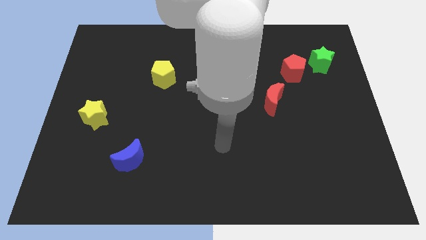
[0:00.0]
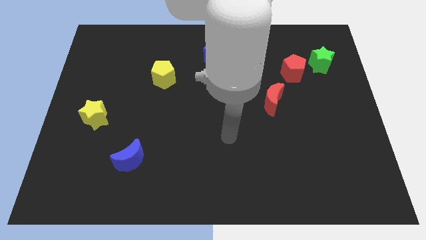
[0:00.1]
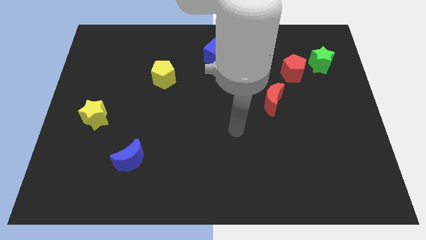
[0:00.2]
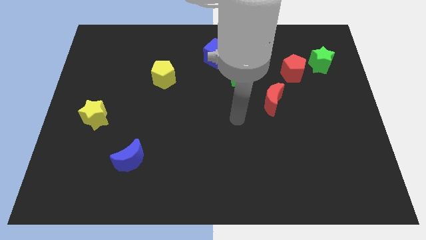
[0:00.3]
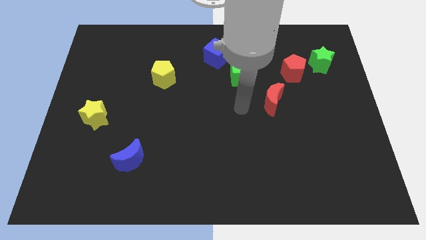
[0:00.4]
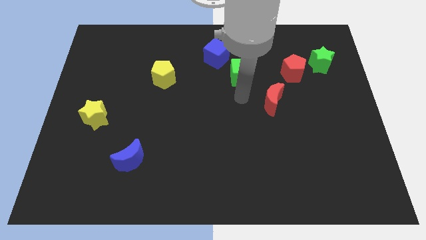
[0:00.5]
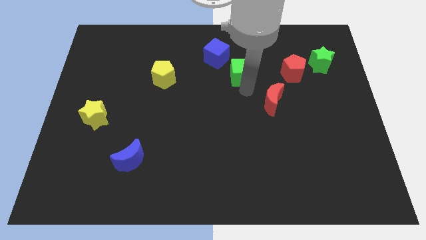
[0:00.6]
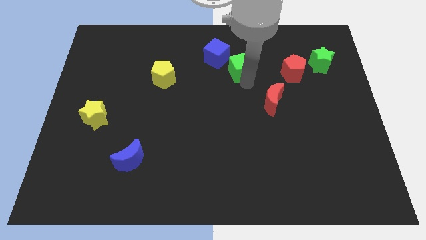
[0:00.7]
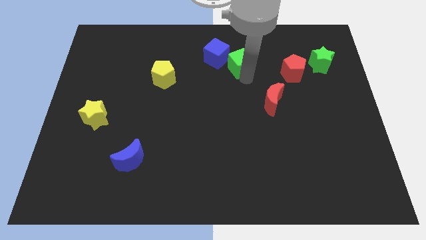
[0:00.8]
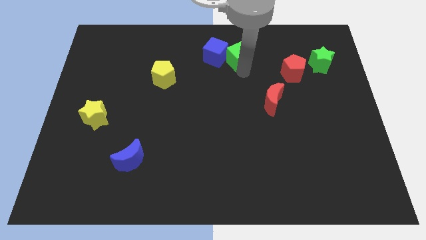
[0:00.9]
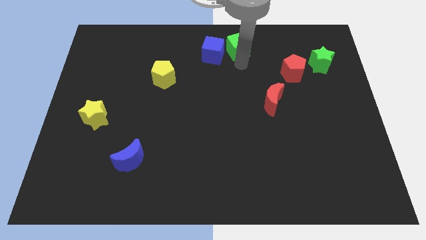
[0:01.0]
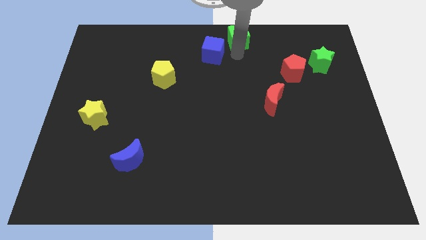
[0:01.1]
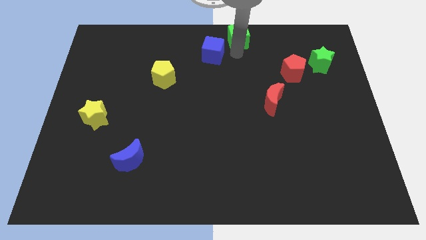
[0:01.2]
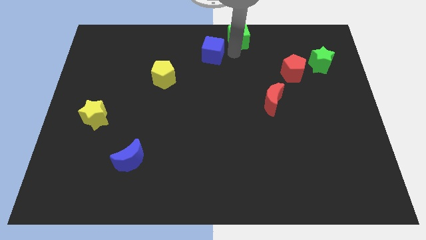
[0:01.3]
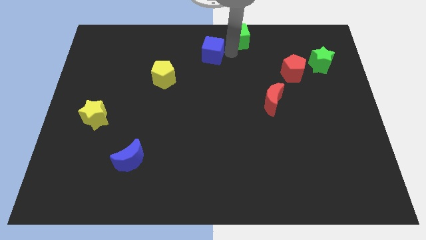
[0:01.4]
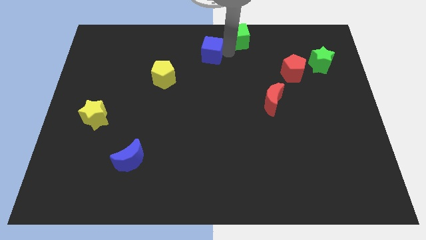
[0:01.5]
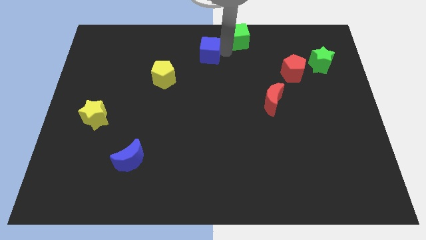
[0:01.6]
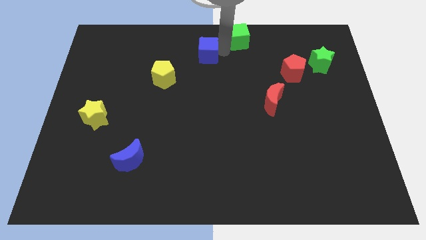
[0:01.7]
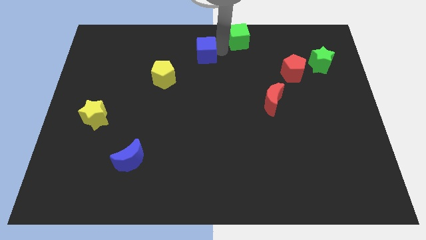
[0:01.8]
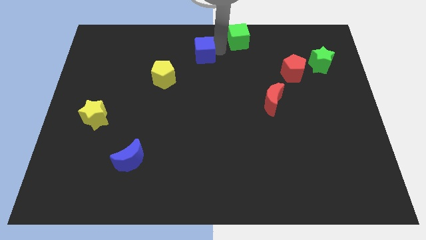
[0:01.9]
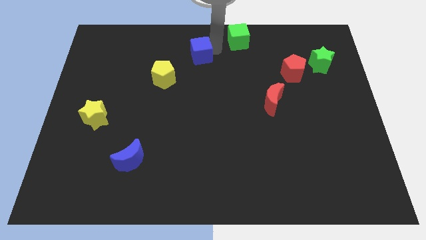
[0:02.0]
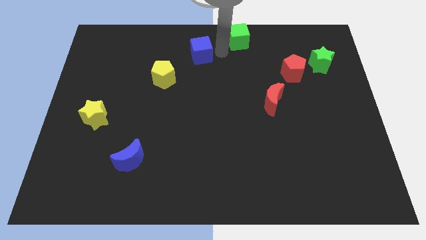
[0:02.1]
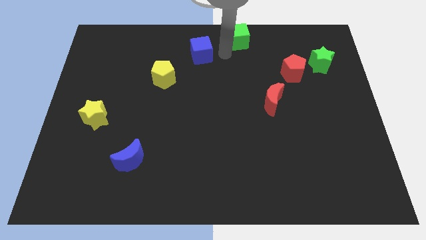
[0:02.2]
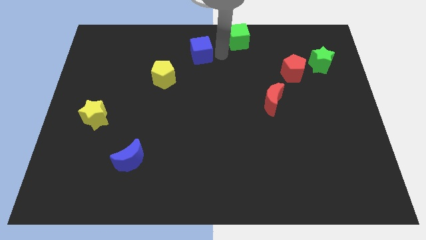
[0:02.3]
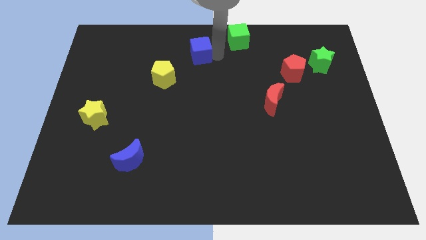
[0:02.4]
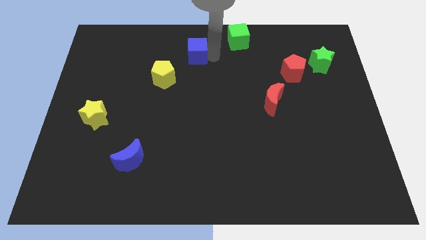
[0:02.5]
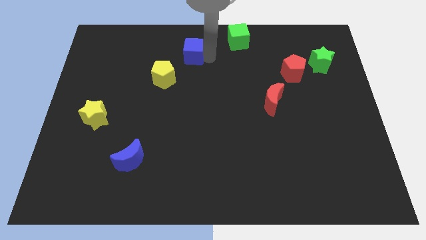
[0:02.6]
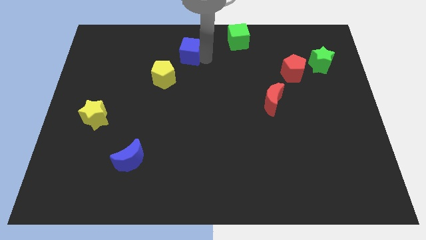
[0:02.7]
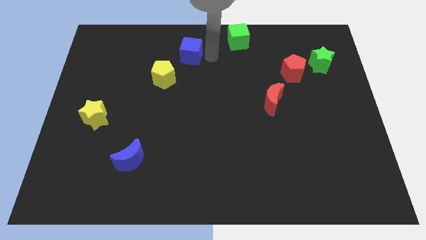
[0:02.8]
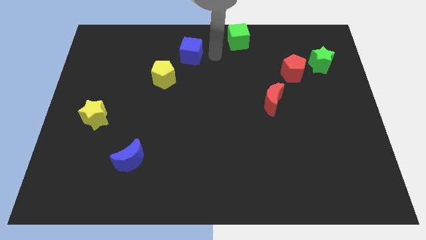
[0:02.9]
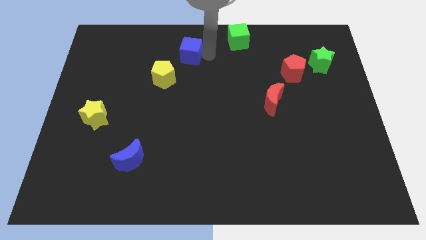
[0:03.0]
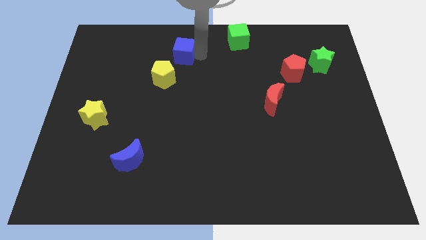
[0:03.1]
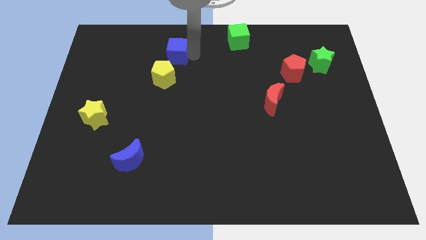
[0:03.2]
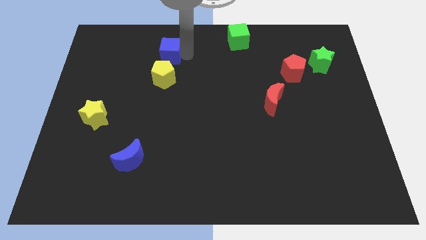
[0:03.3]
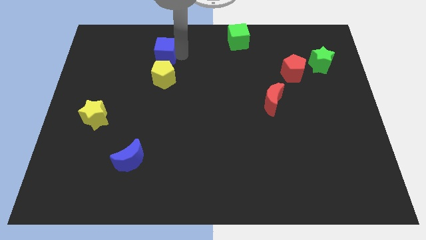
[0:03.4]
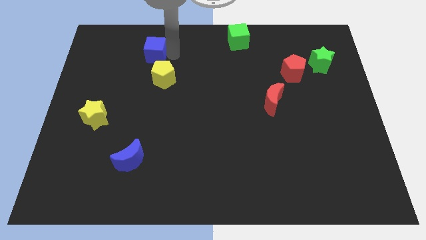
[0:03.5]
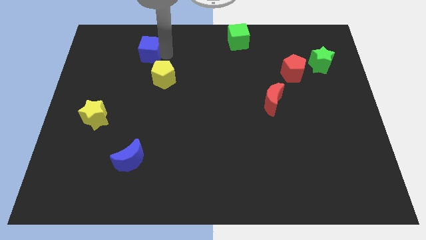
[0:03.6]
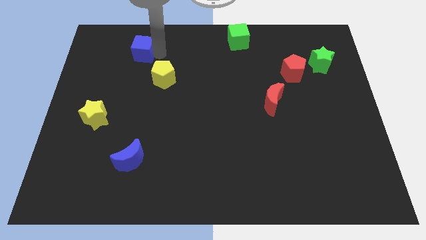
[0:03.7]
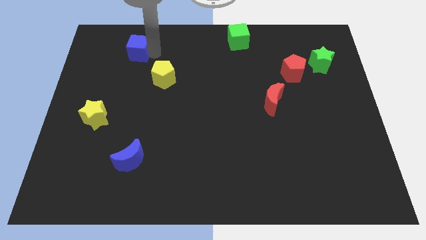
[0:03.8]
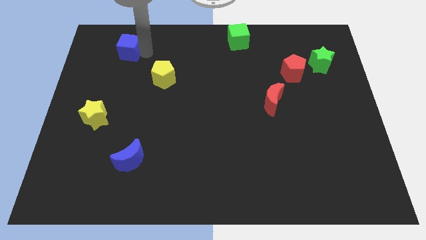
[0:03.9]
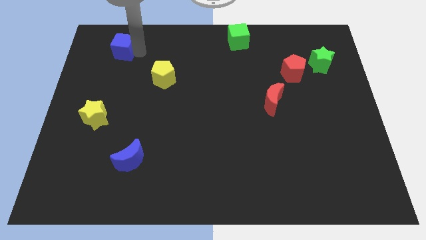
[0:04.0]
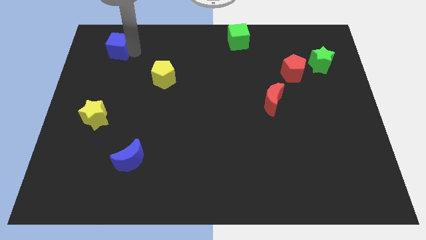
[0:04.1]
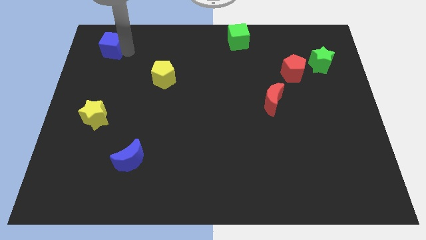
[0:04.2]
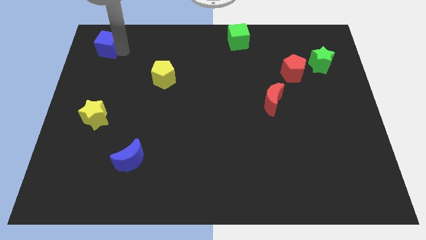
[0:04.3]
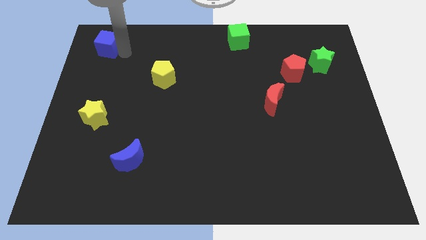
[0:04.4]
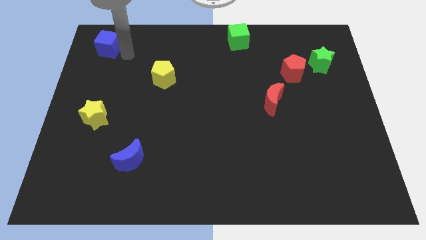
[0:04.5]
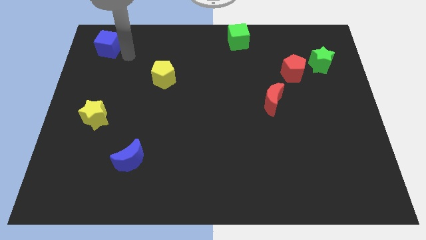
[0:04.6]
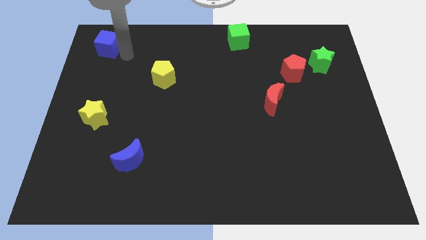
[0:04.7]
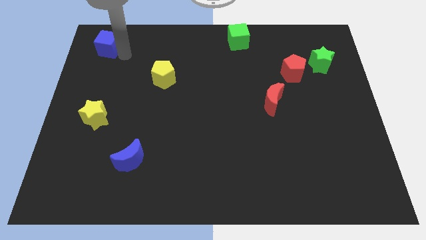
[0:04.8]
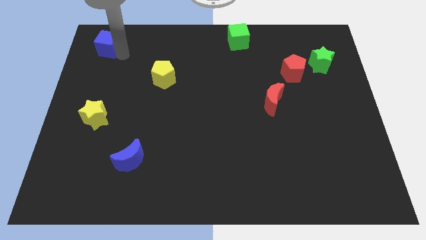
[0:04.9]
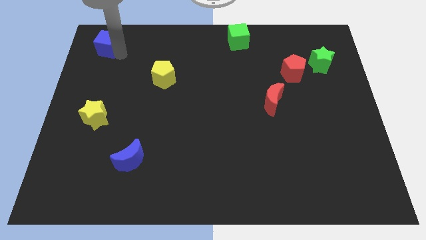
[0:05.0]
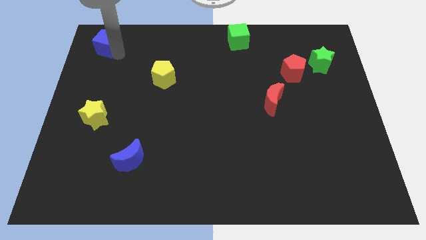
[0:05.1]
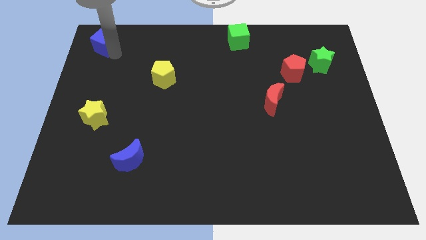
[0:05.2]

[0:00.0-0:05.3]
put the blue cube to the top left

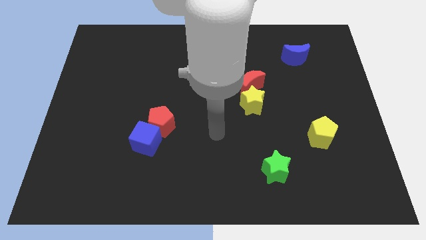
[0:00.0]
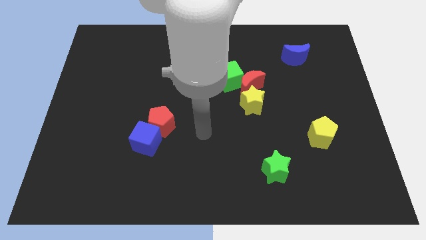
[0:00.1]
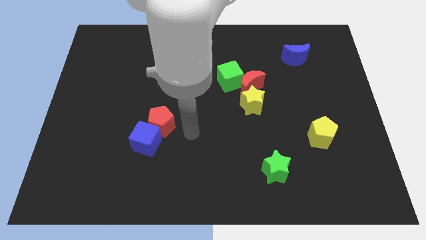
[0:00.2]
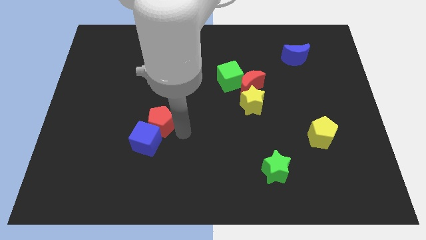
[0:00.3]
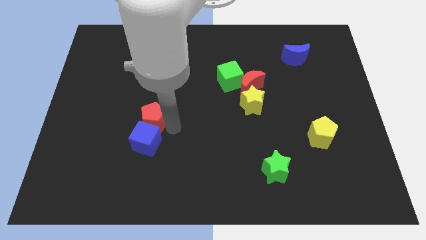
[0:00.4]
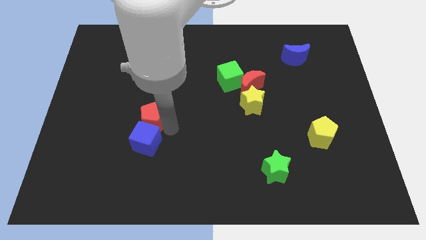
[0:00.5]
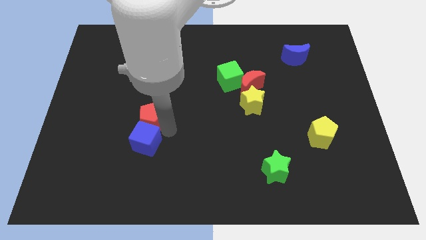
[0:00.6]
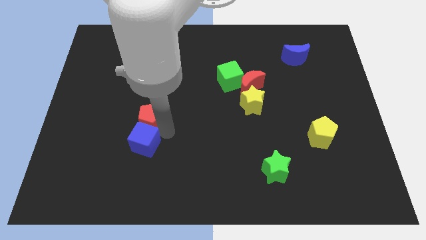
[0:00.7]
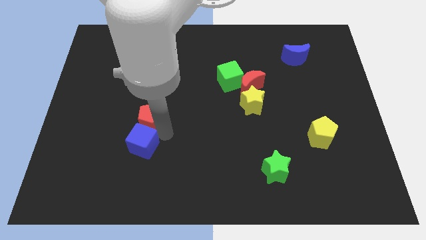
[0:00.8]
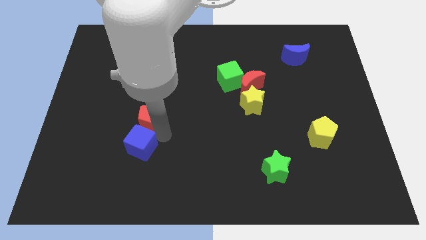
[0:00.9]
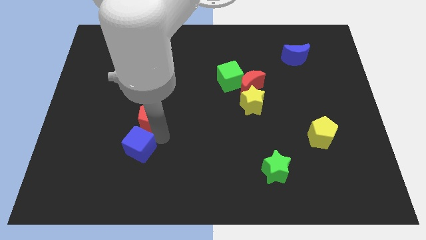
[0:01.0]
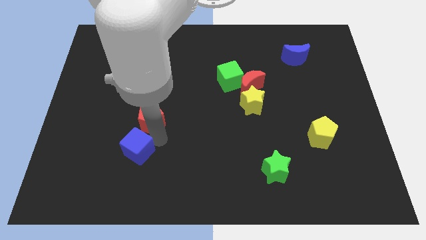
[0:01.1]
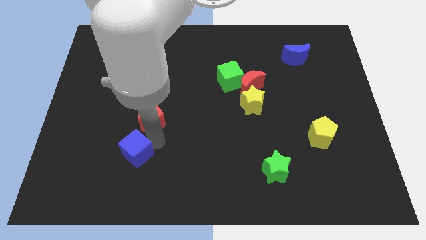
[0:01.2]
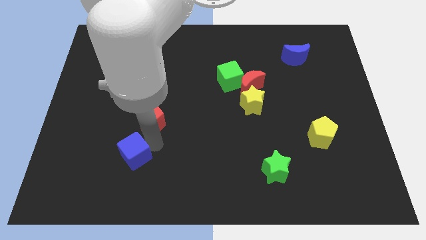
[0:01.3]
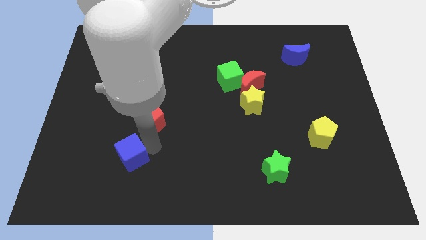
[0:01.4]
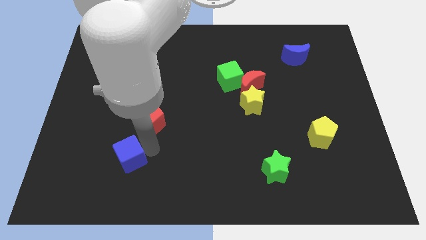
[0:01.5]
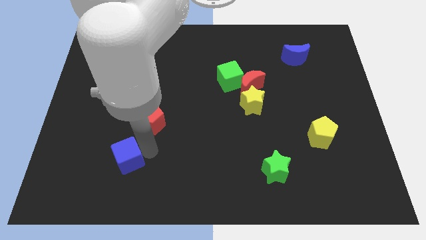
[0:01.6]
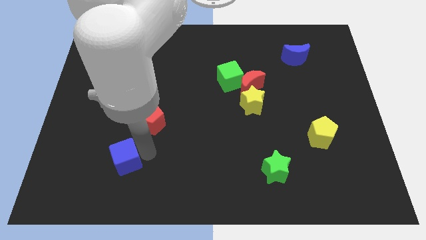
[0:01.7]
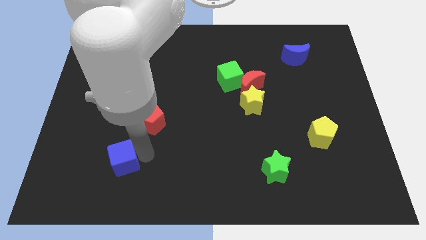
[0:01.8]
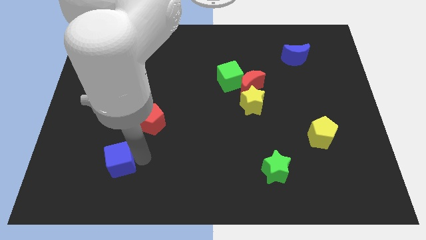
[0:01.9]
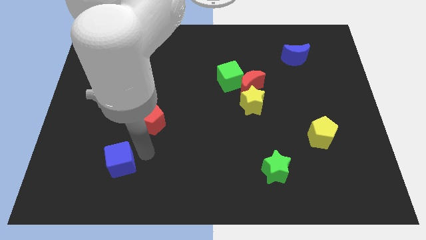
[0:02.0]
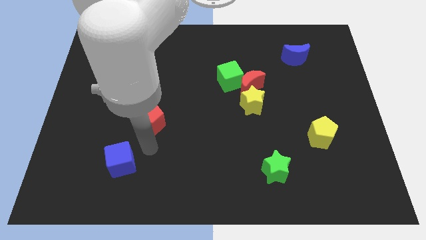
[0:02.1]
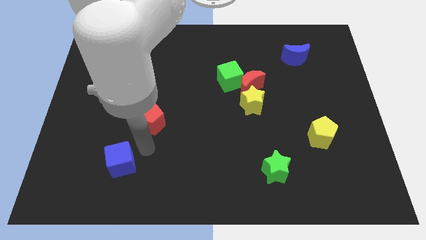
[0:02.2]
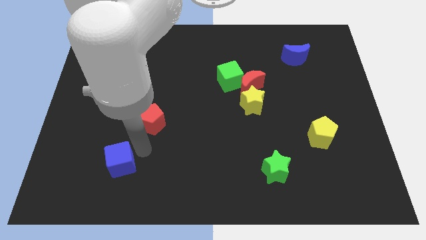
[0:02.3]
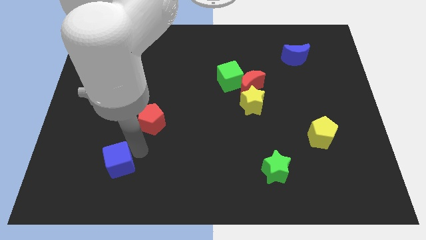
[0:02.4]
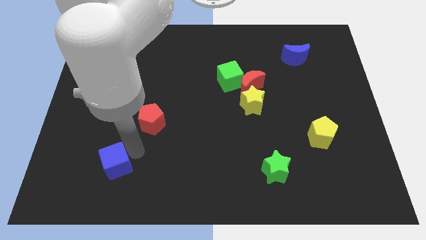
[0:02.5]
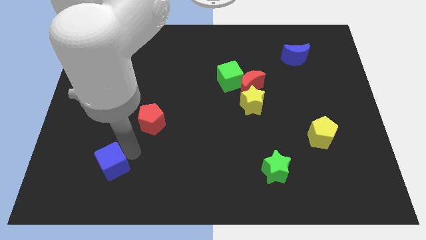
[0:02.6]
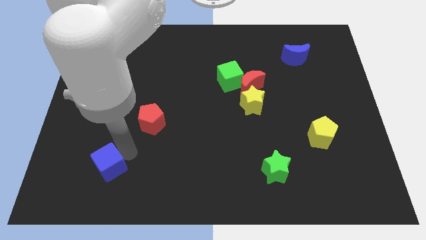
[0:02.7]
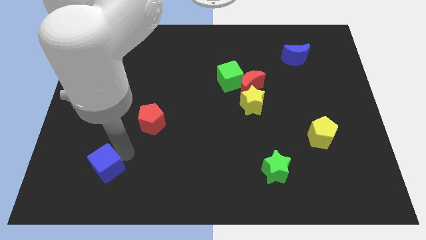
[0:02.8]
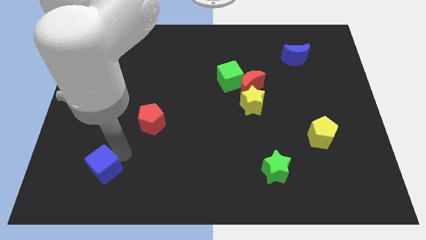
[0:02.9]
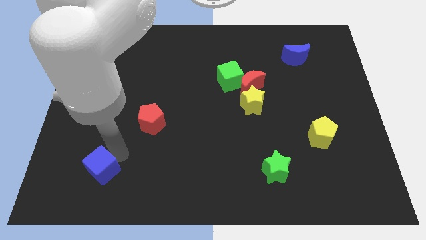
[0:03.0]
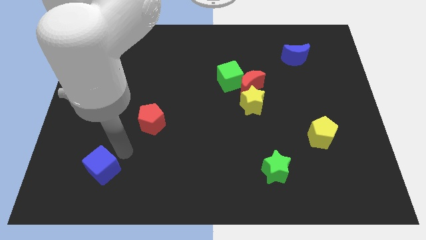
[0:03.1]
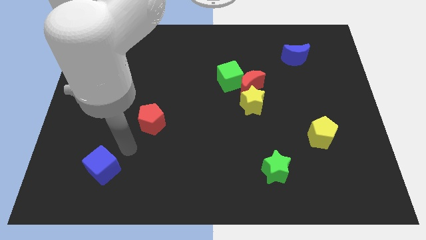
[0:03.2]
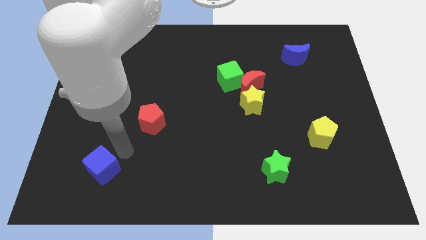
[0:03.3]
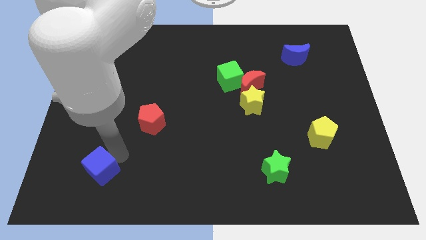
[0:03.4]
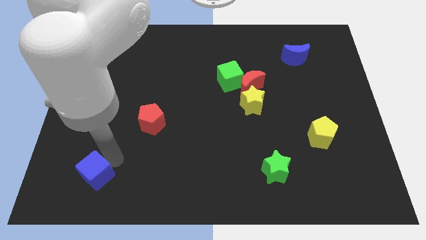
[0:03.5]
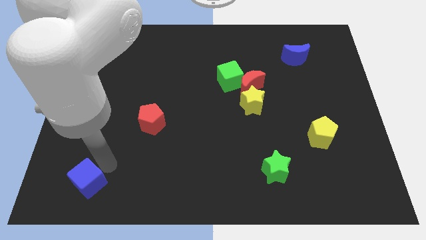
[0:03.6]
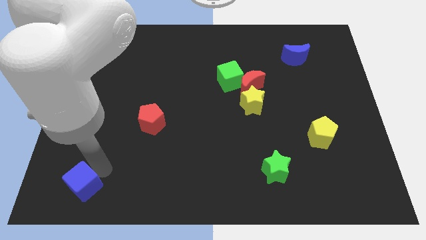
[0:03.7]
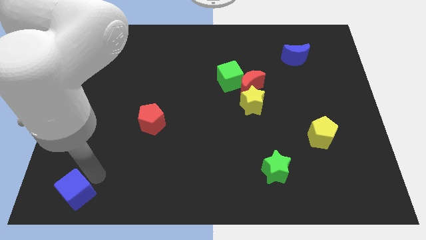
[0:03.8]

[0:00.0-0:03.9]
put the blue cube to the lower left corner
